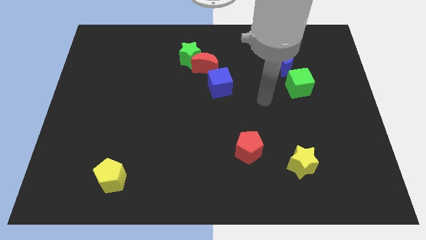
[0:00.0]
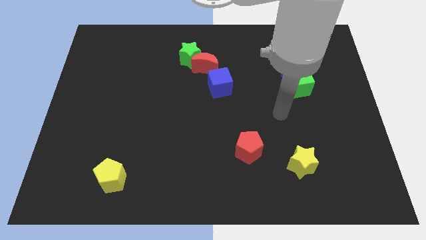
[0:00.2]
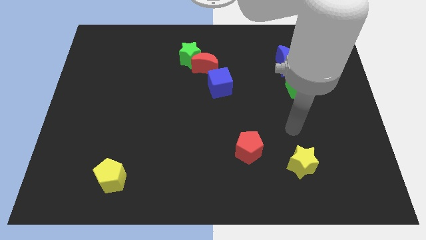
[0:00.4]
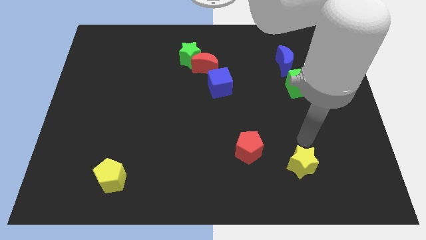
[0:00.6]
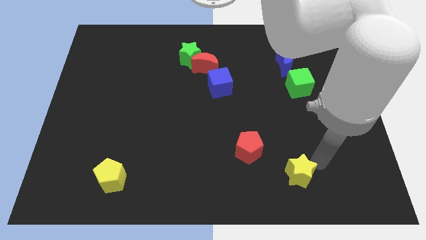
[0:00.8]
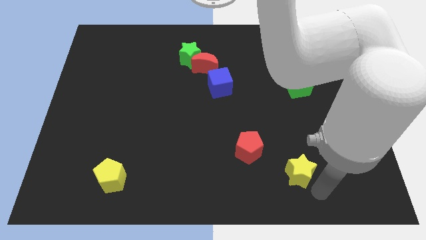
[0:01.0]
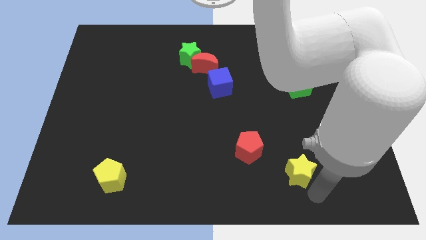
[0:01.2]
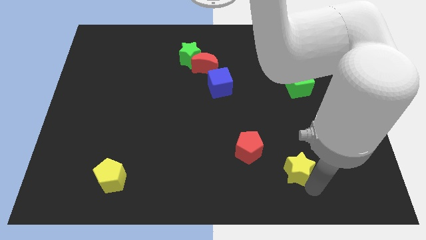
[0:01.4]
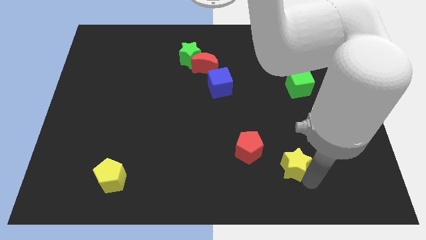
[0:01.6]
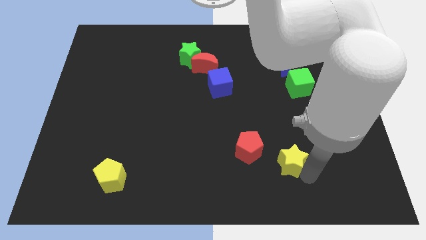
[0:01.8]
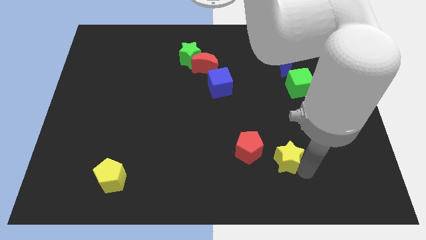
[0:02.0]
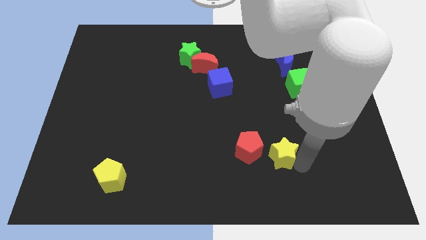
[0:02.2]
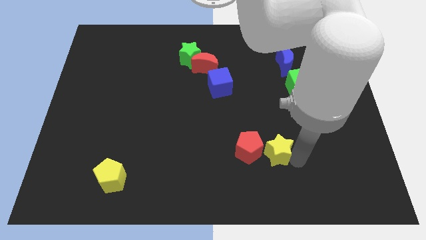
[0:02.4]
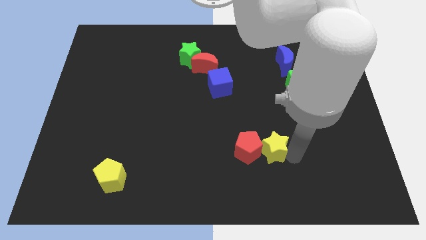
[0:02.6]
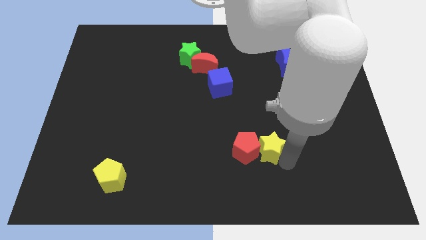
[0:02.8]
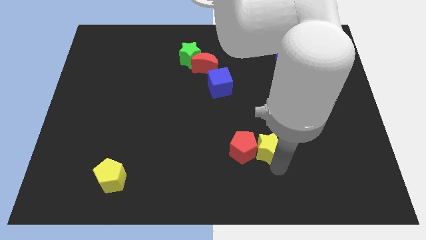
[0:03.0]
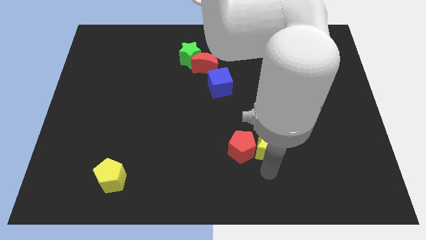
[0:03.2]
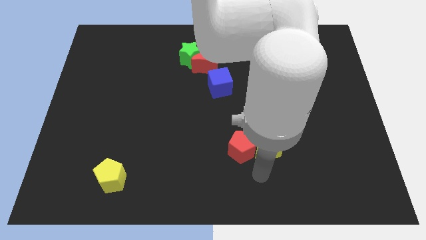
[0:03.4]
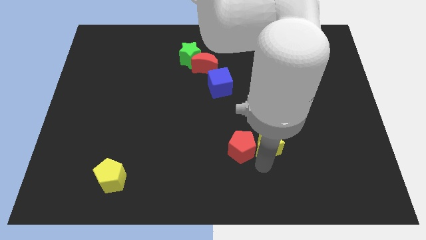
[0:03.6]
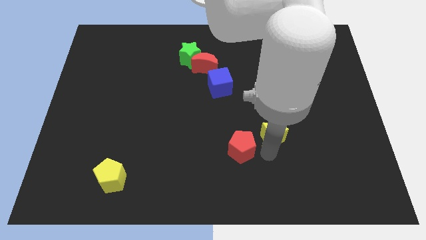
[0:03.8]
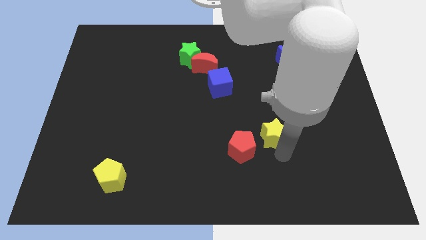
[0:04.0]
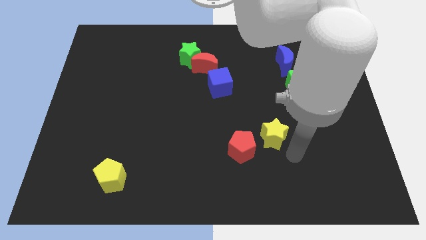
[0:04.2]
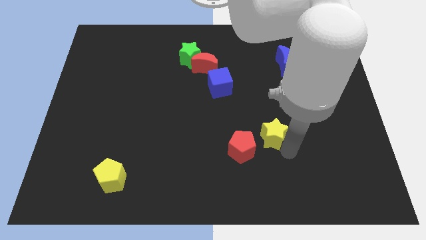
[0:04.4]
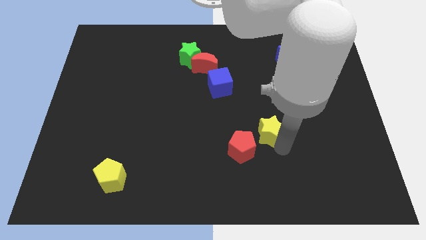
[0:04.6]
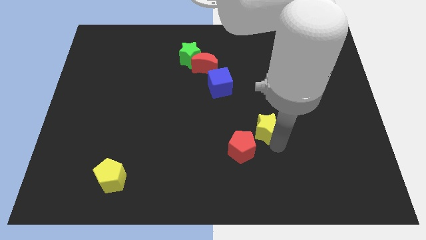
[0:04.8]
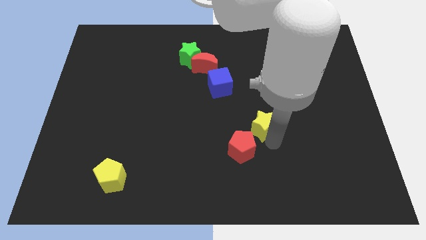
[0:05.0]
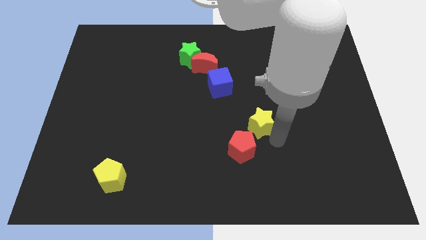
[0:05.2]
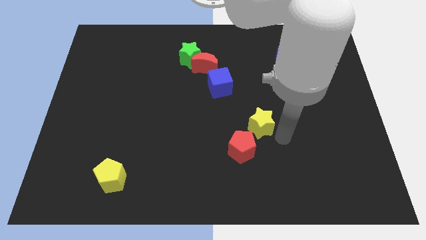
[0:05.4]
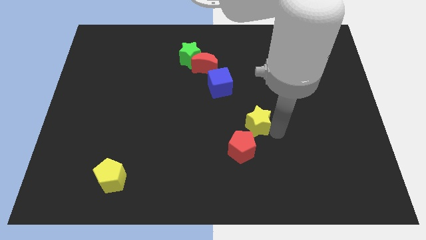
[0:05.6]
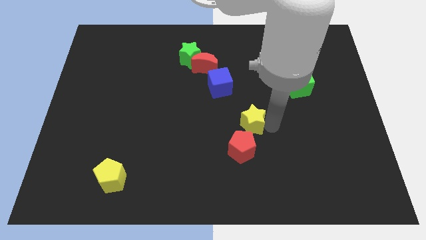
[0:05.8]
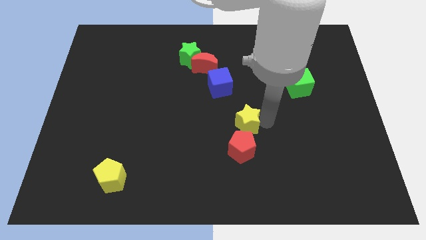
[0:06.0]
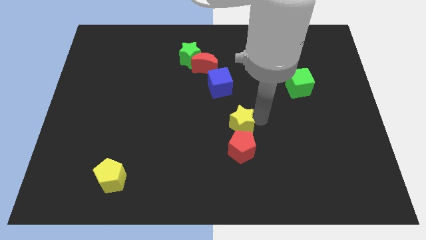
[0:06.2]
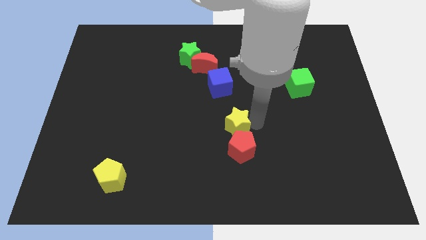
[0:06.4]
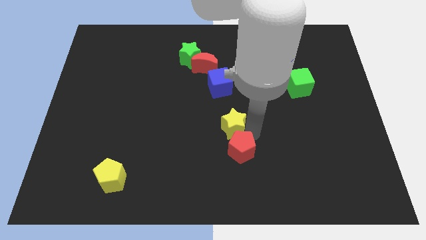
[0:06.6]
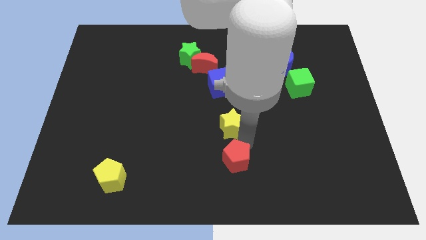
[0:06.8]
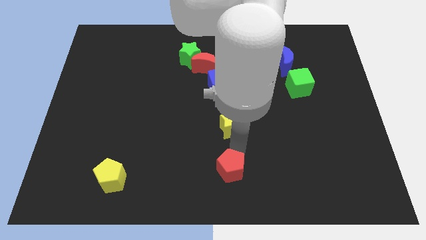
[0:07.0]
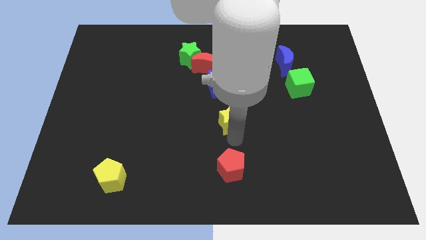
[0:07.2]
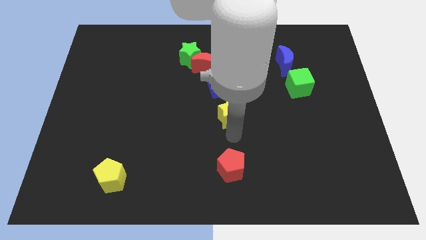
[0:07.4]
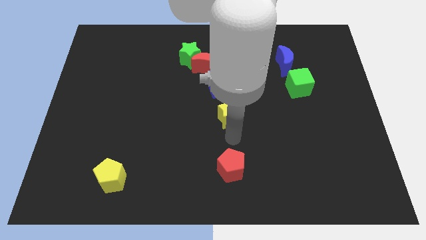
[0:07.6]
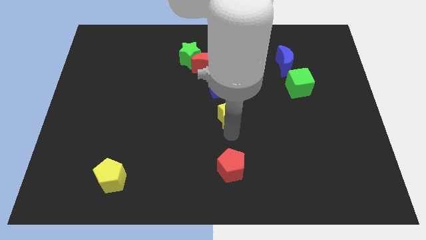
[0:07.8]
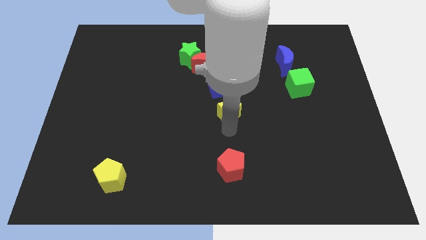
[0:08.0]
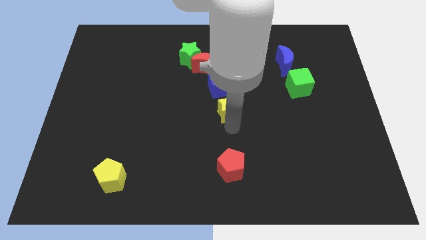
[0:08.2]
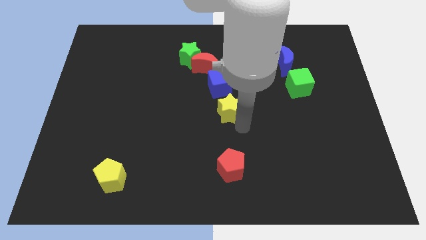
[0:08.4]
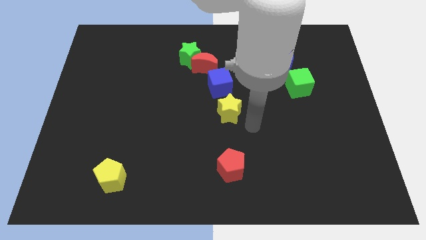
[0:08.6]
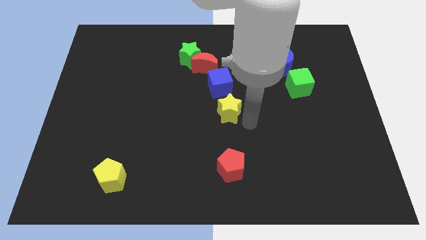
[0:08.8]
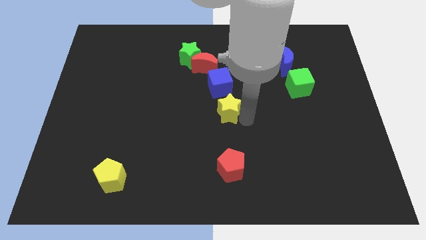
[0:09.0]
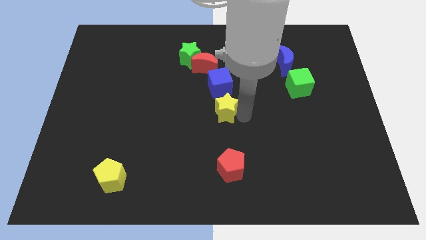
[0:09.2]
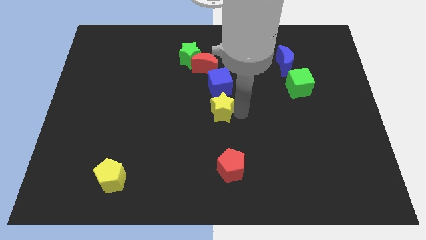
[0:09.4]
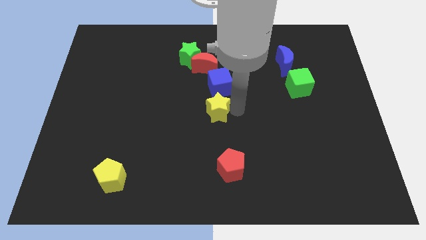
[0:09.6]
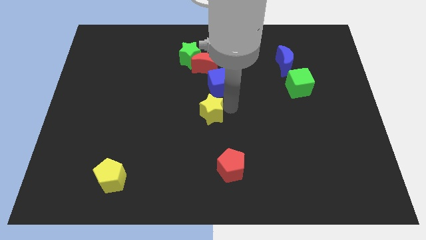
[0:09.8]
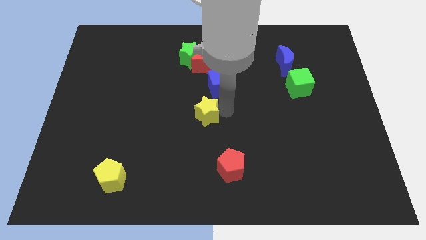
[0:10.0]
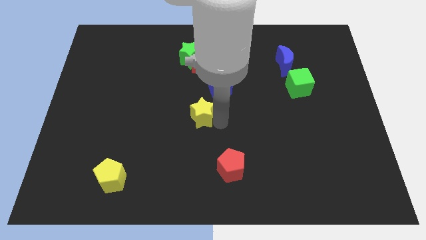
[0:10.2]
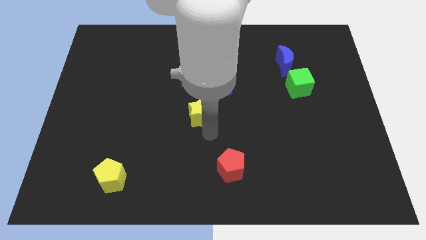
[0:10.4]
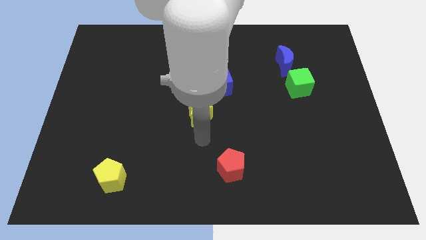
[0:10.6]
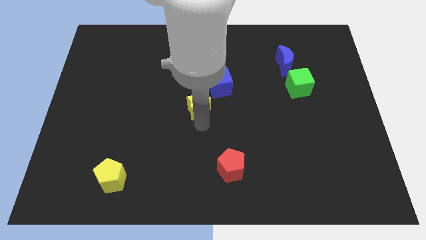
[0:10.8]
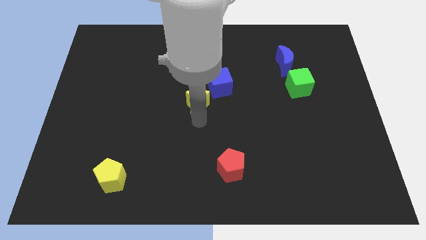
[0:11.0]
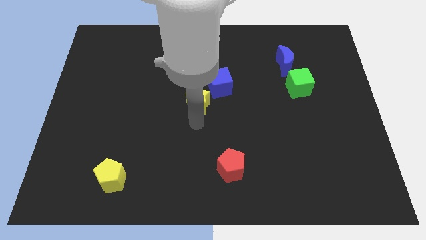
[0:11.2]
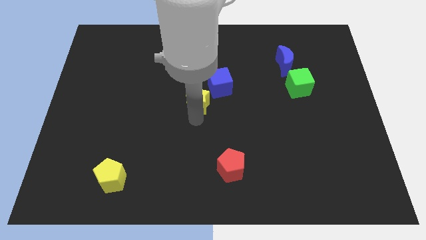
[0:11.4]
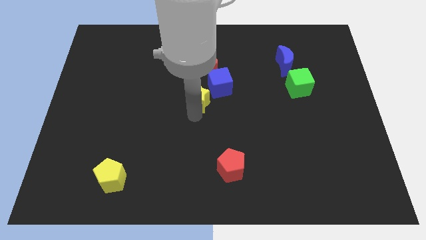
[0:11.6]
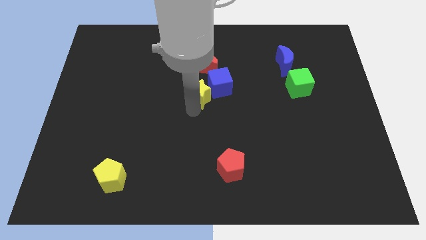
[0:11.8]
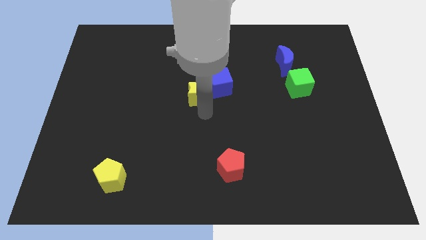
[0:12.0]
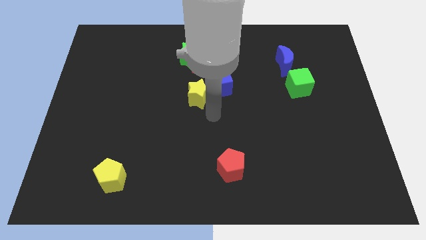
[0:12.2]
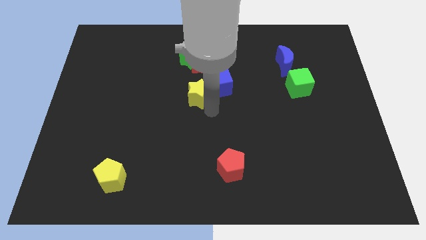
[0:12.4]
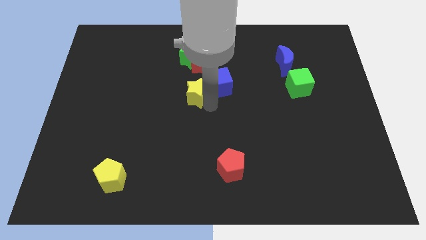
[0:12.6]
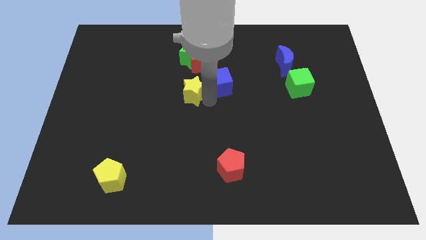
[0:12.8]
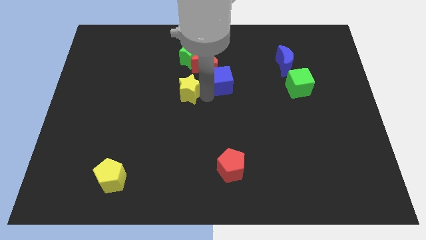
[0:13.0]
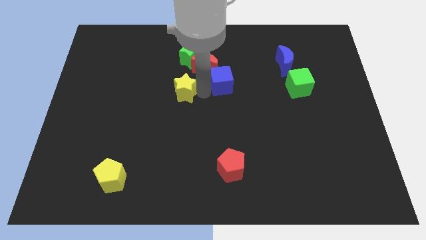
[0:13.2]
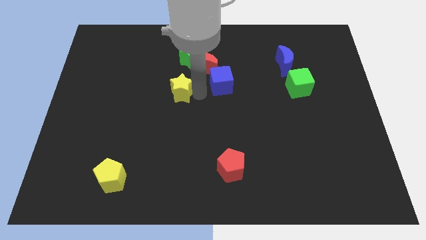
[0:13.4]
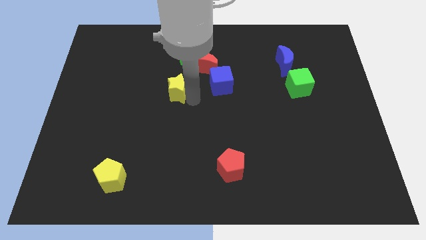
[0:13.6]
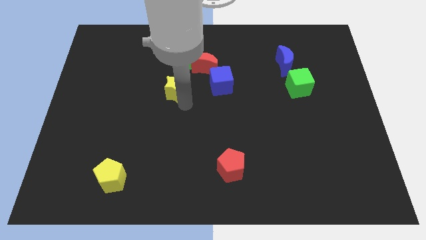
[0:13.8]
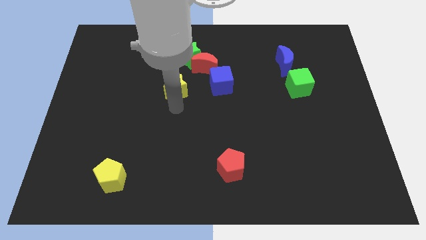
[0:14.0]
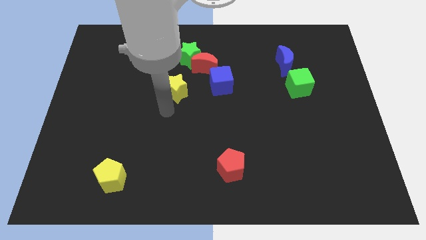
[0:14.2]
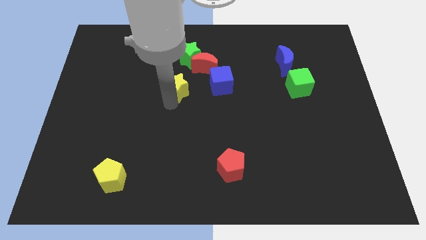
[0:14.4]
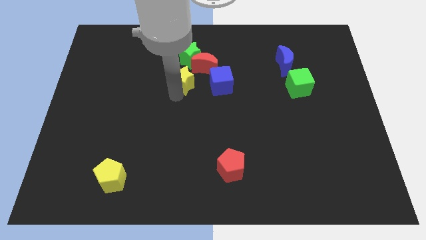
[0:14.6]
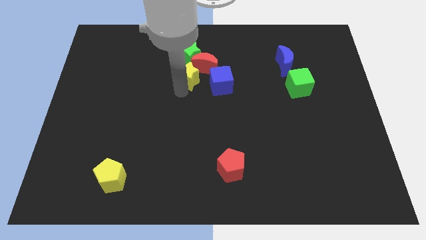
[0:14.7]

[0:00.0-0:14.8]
move the yellow star to the left of the red moon

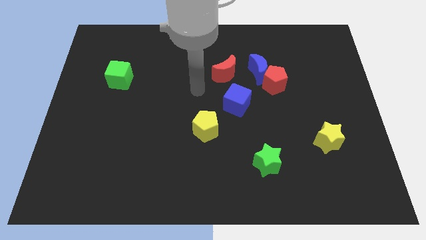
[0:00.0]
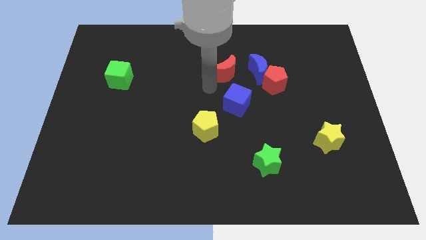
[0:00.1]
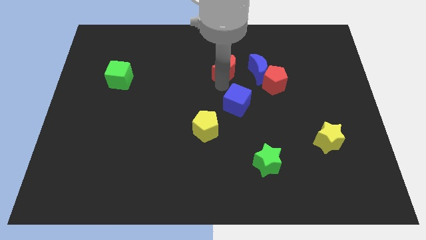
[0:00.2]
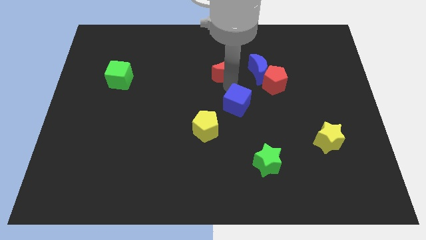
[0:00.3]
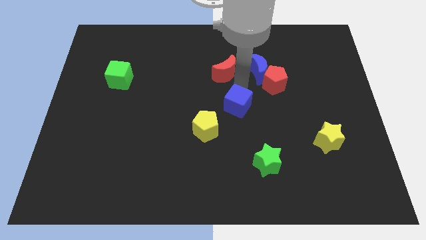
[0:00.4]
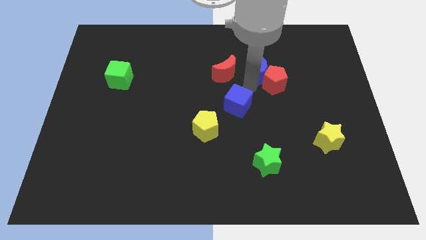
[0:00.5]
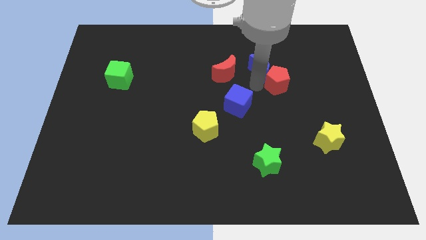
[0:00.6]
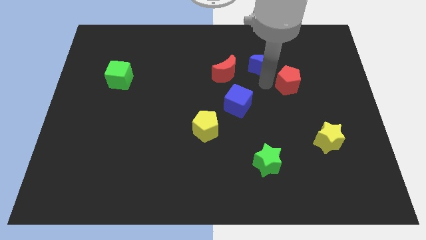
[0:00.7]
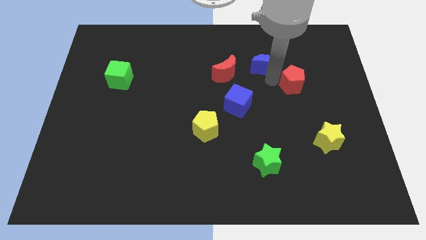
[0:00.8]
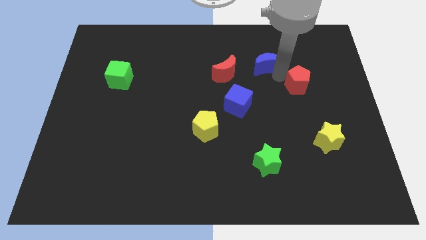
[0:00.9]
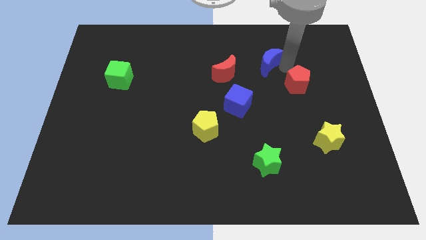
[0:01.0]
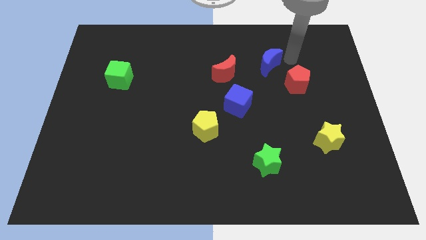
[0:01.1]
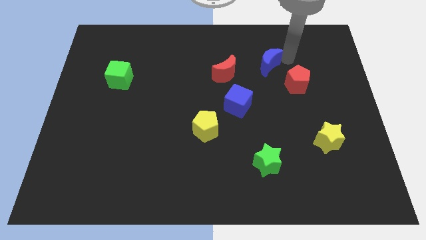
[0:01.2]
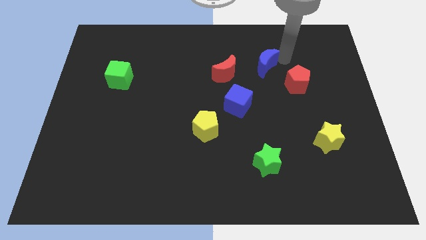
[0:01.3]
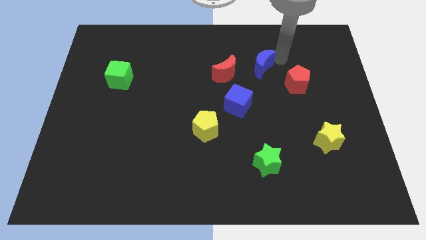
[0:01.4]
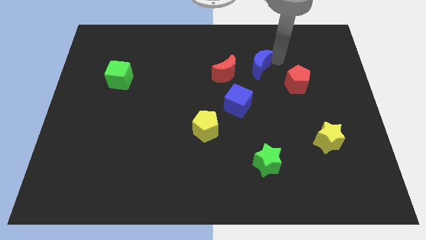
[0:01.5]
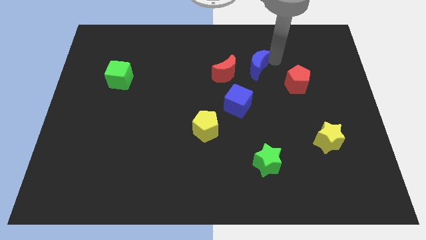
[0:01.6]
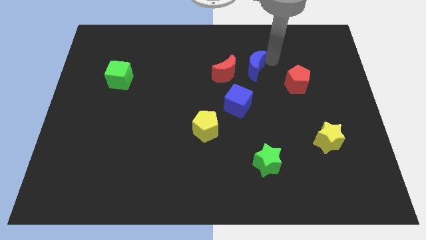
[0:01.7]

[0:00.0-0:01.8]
push the blue moon to the top of the blue cube
